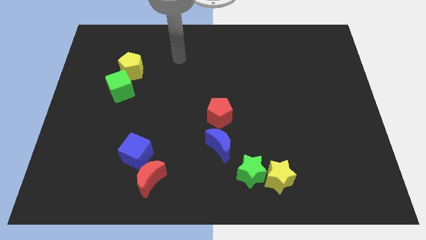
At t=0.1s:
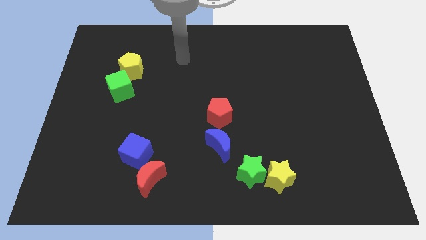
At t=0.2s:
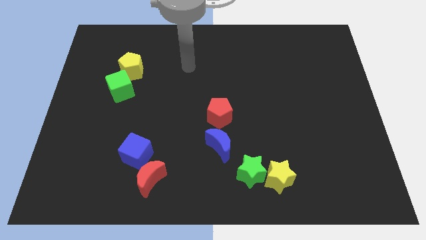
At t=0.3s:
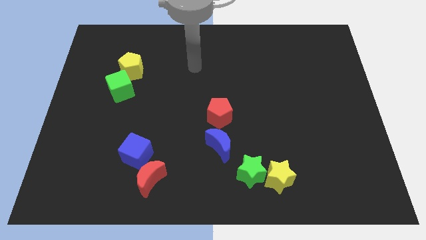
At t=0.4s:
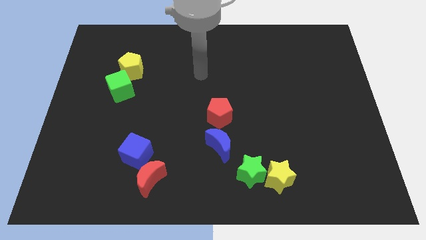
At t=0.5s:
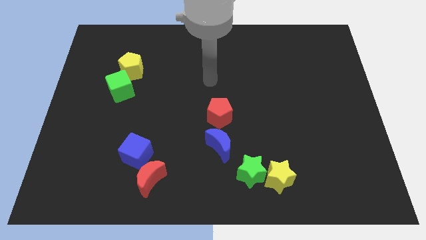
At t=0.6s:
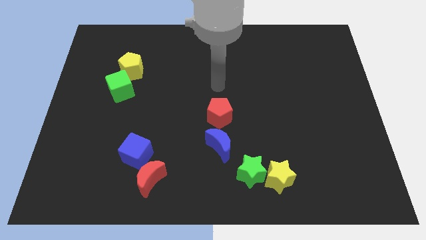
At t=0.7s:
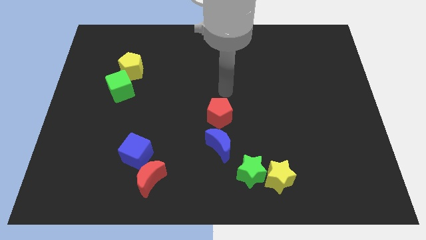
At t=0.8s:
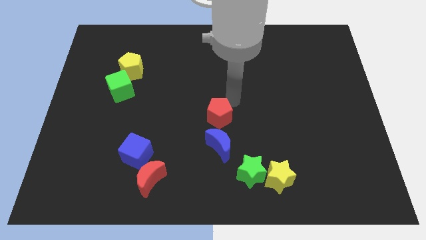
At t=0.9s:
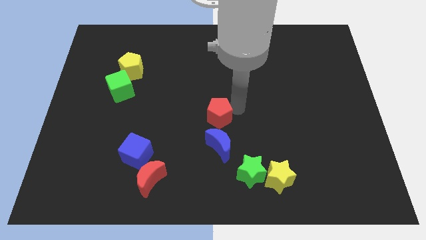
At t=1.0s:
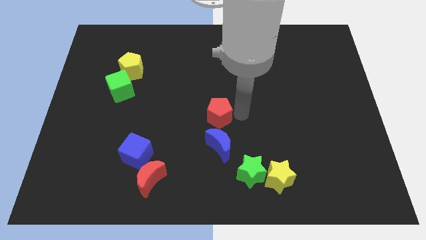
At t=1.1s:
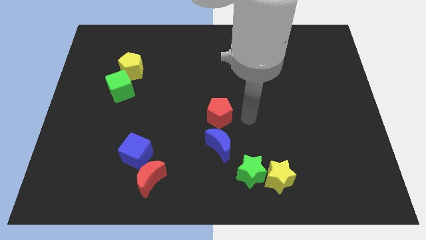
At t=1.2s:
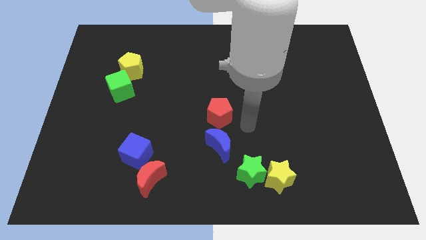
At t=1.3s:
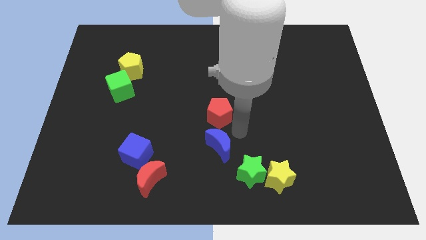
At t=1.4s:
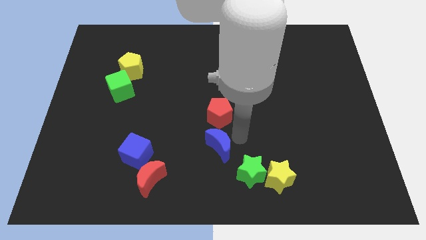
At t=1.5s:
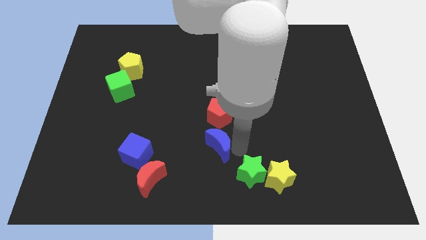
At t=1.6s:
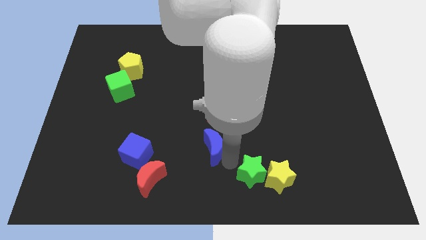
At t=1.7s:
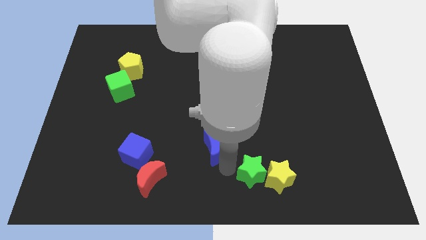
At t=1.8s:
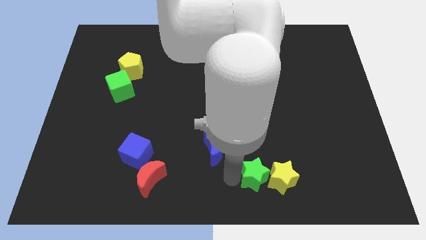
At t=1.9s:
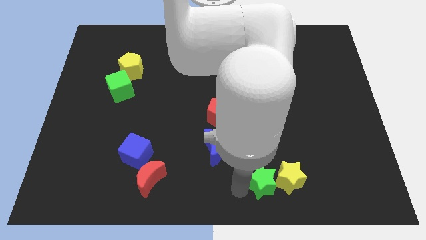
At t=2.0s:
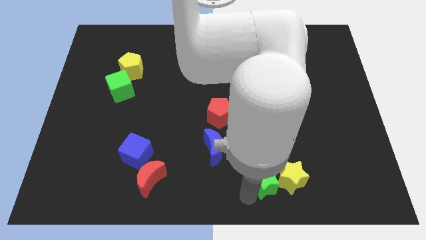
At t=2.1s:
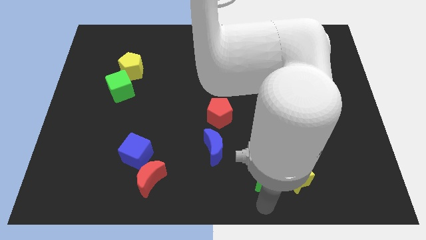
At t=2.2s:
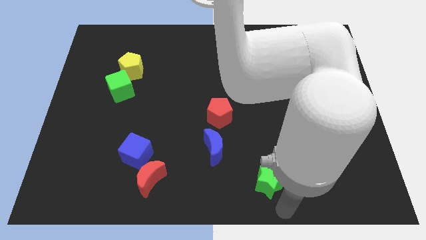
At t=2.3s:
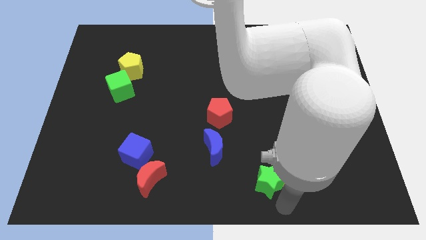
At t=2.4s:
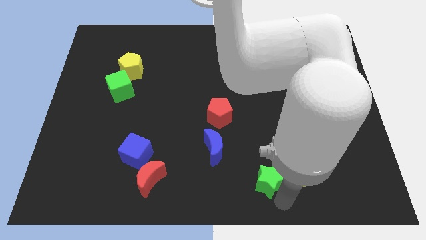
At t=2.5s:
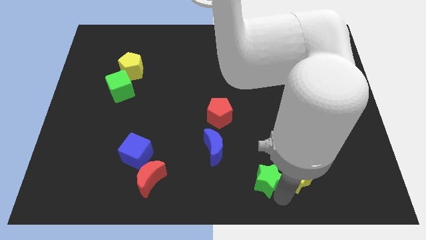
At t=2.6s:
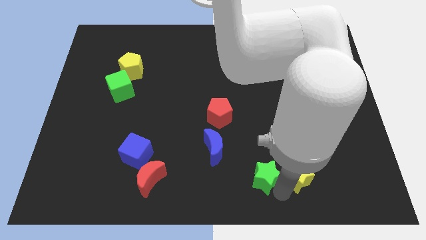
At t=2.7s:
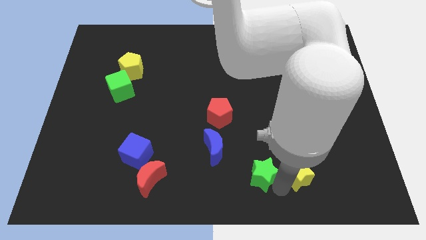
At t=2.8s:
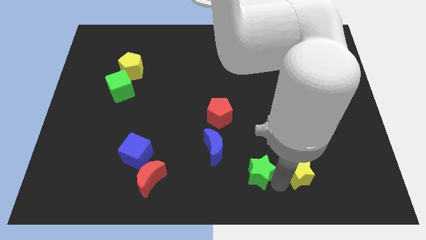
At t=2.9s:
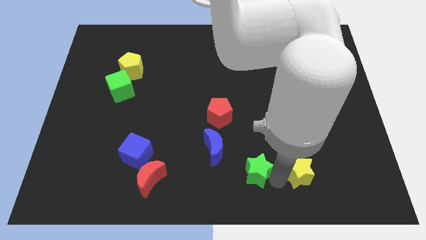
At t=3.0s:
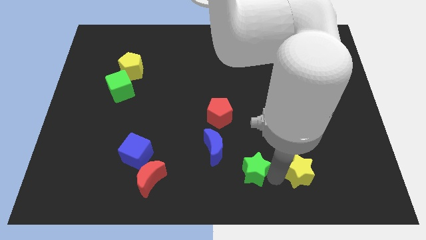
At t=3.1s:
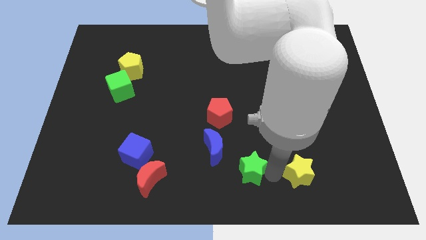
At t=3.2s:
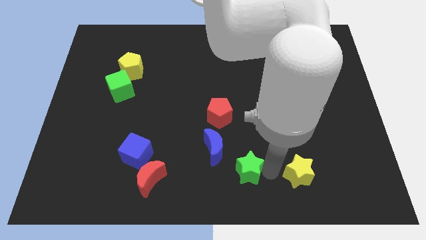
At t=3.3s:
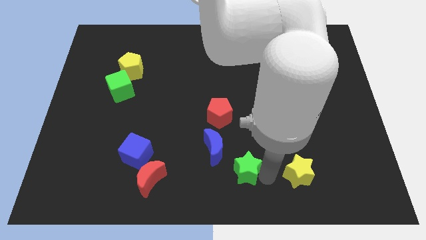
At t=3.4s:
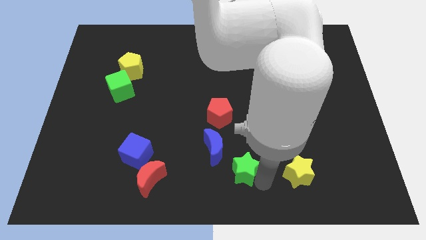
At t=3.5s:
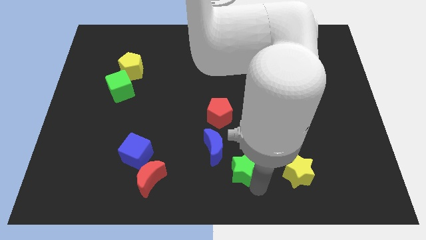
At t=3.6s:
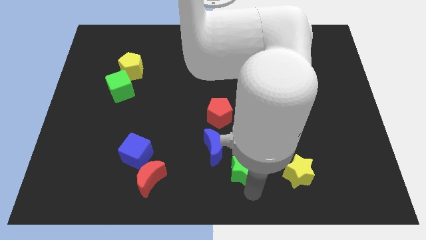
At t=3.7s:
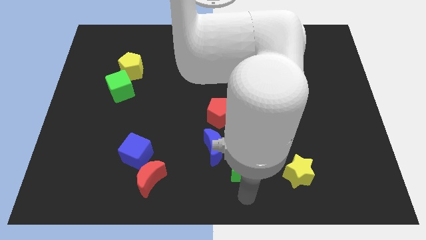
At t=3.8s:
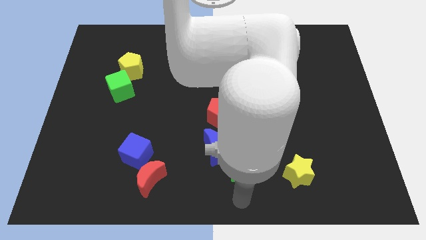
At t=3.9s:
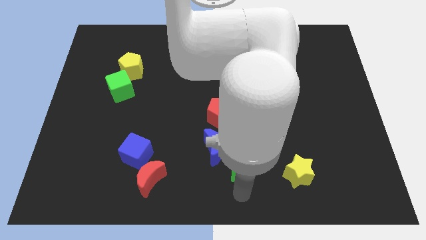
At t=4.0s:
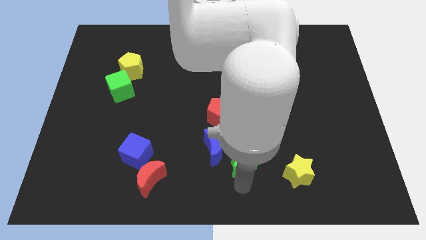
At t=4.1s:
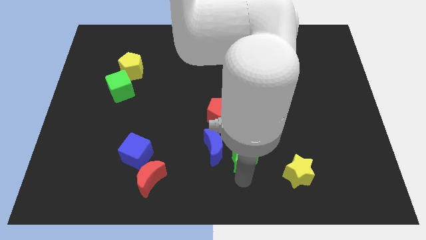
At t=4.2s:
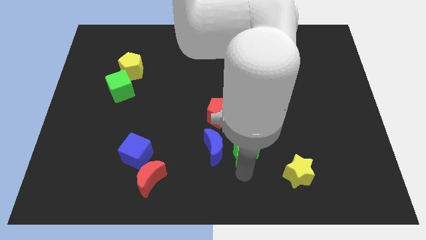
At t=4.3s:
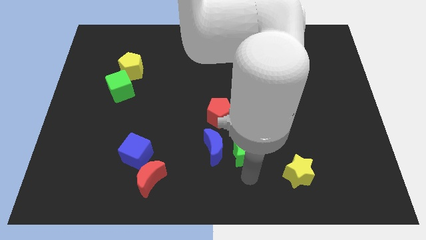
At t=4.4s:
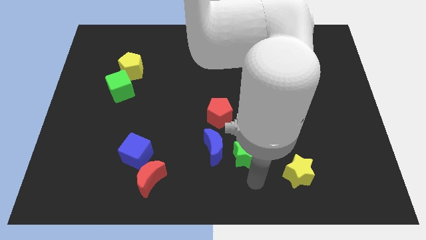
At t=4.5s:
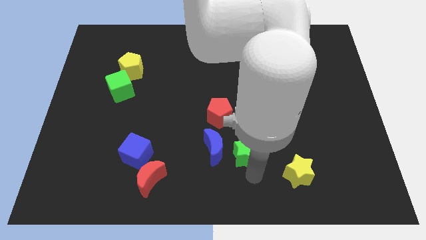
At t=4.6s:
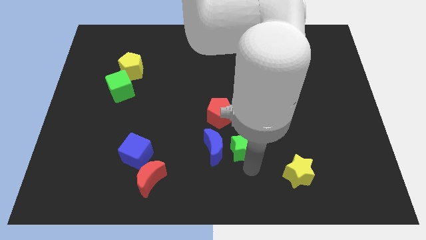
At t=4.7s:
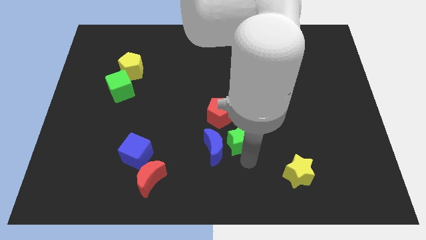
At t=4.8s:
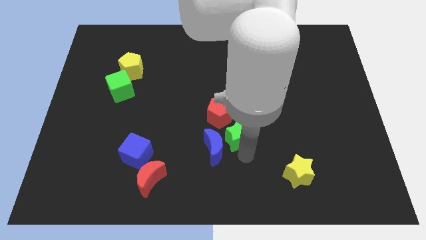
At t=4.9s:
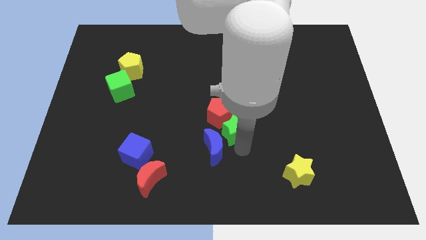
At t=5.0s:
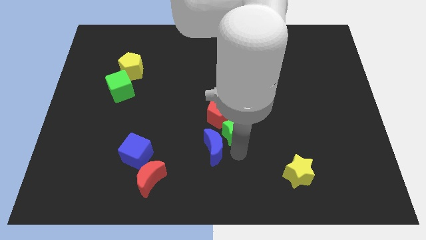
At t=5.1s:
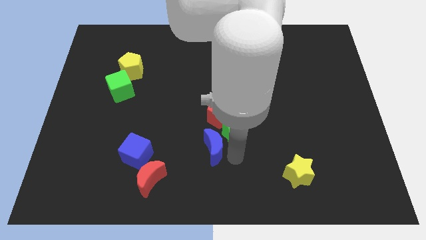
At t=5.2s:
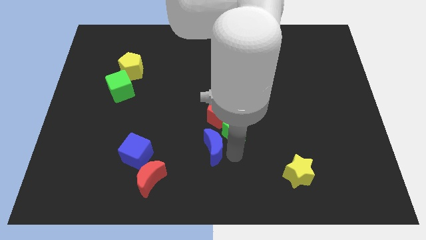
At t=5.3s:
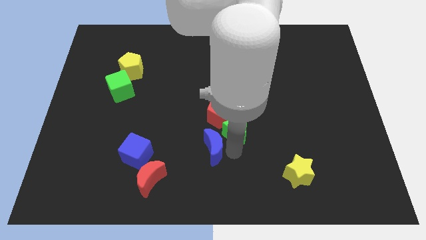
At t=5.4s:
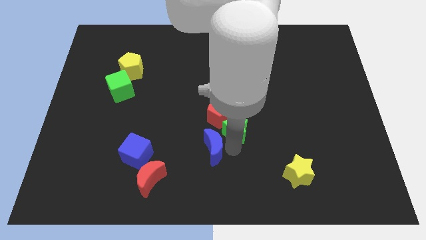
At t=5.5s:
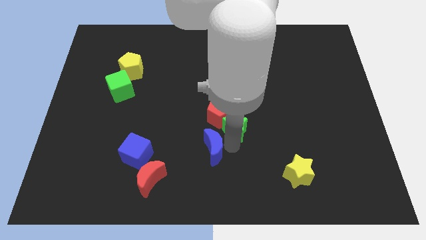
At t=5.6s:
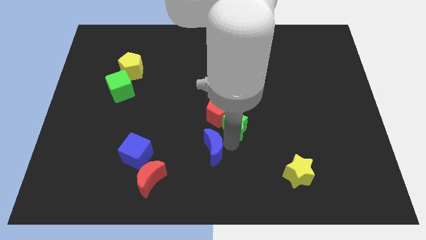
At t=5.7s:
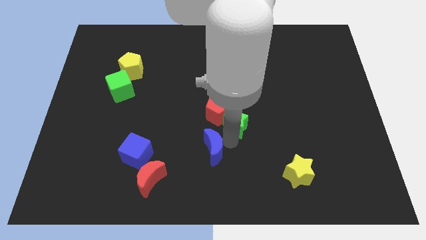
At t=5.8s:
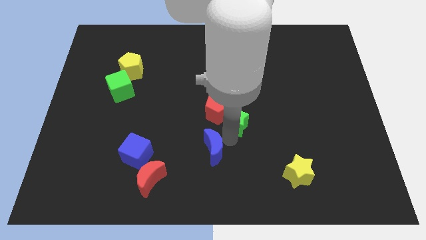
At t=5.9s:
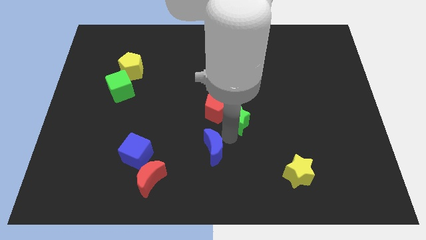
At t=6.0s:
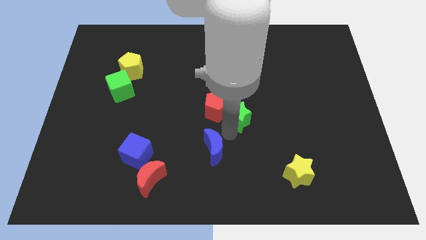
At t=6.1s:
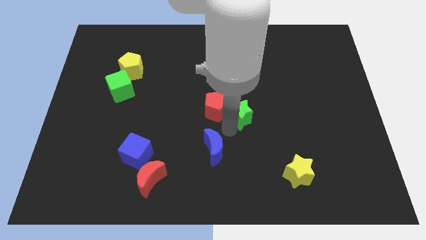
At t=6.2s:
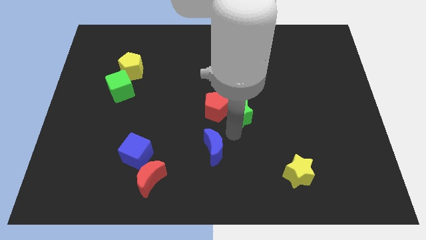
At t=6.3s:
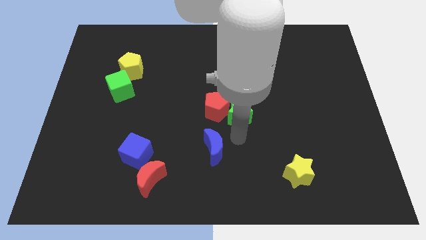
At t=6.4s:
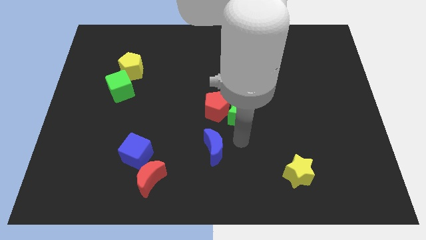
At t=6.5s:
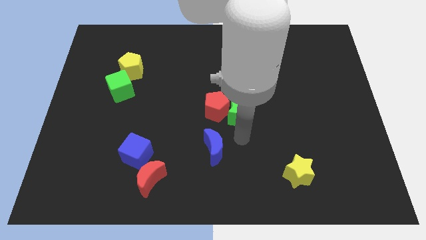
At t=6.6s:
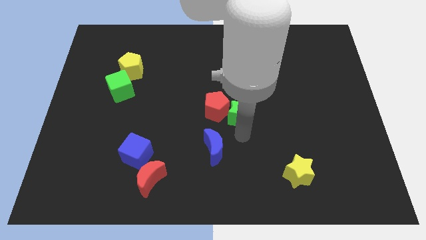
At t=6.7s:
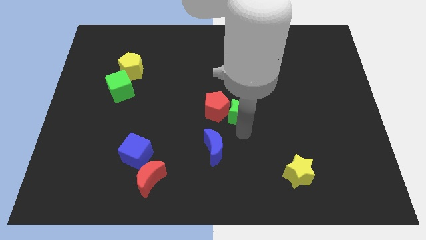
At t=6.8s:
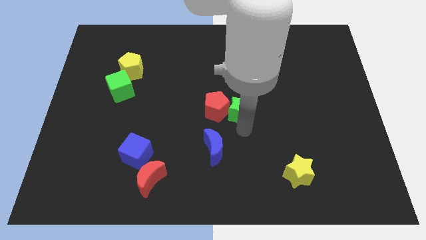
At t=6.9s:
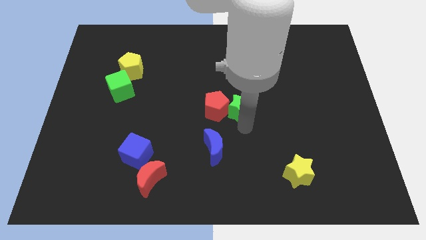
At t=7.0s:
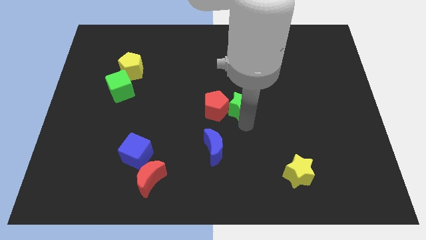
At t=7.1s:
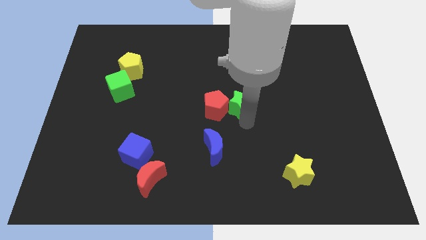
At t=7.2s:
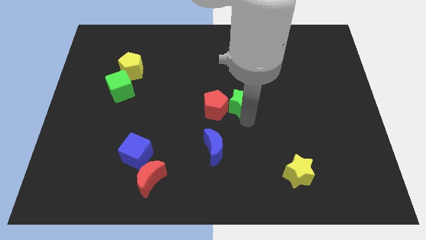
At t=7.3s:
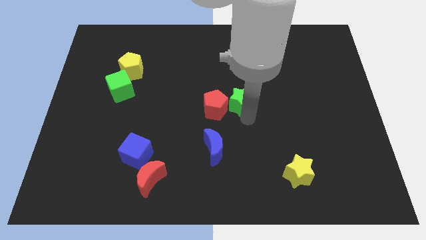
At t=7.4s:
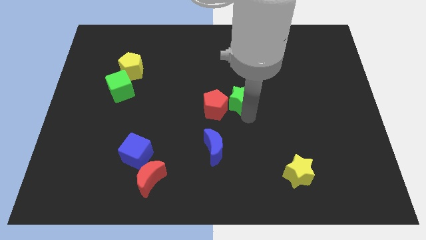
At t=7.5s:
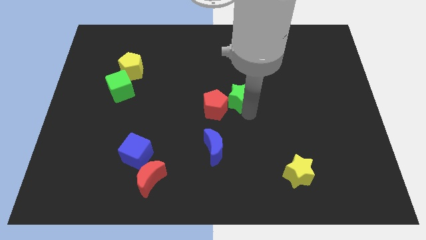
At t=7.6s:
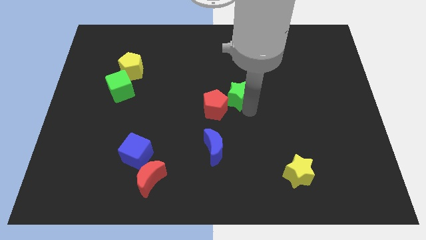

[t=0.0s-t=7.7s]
slide the green star up

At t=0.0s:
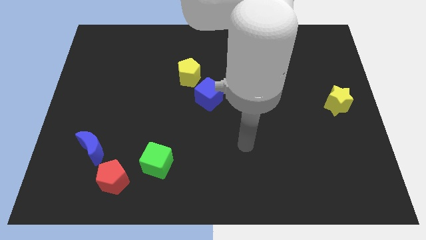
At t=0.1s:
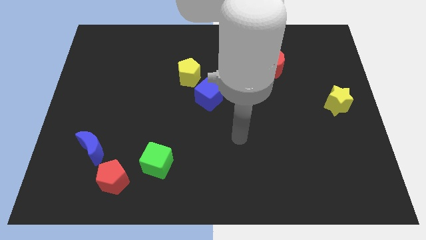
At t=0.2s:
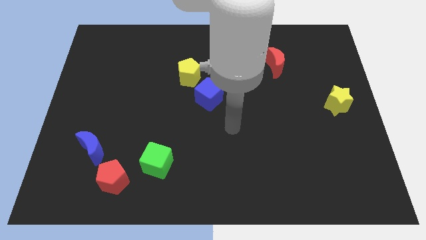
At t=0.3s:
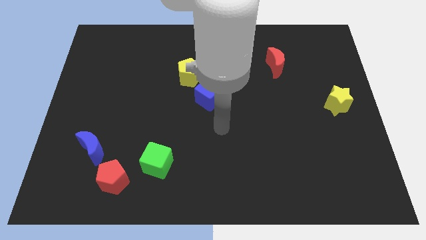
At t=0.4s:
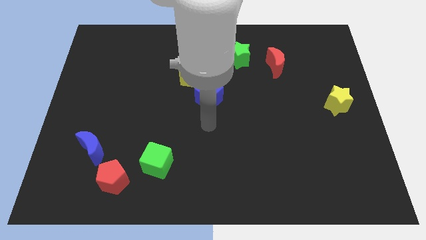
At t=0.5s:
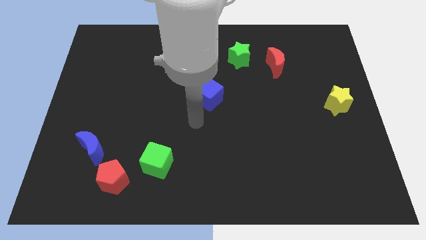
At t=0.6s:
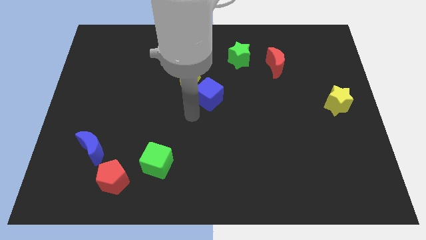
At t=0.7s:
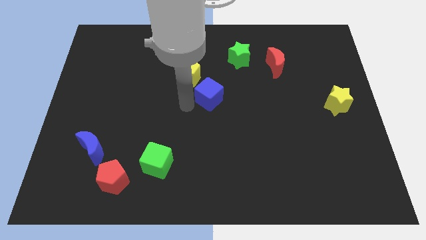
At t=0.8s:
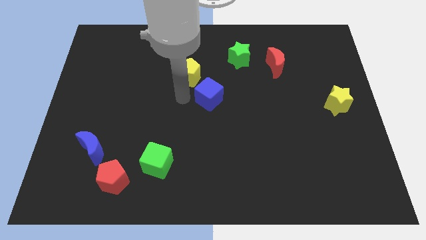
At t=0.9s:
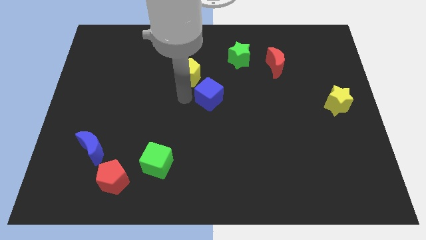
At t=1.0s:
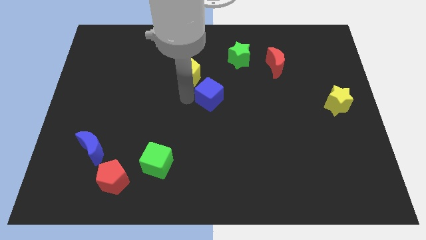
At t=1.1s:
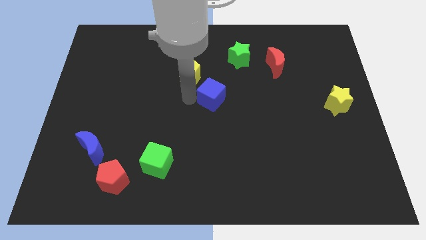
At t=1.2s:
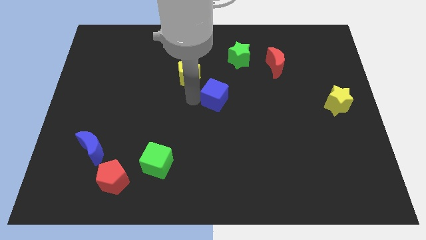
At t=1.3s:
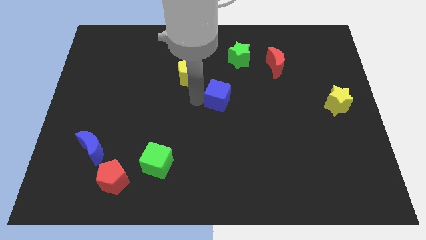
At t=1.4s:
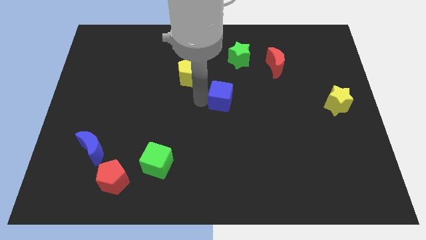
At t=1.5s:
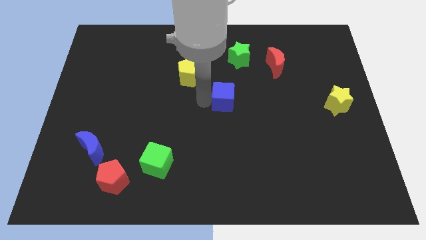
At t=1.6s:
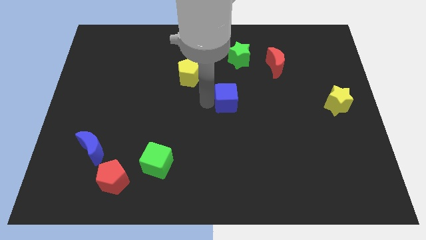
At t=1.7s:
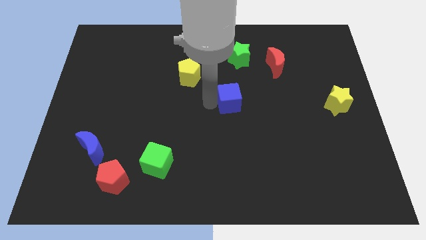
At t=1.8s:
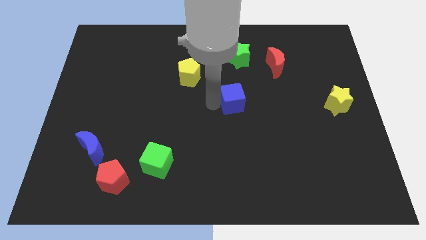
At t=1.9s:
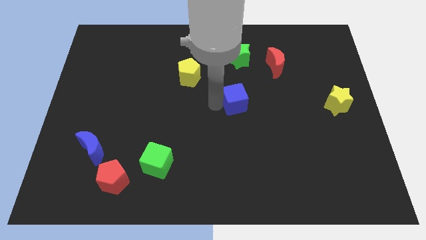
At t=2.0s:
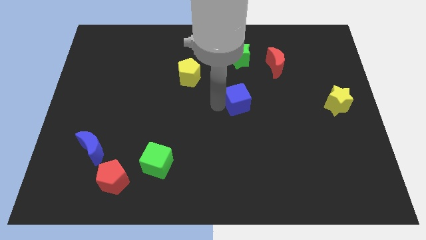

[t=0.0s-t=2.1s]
slide the blue cube a bit to the right
